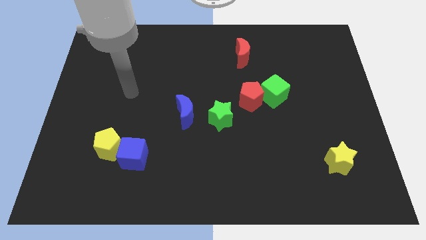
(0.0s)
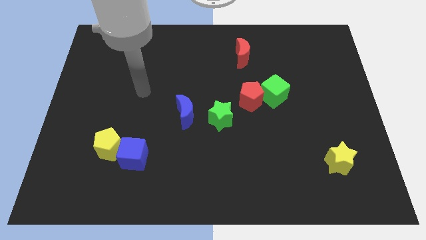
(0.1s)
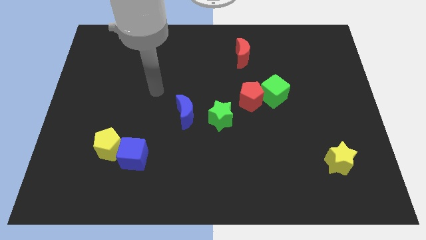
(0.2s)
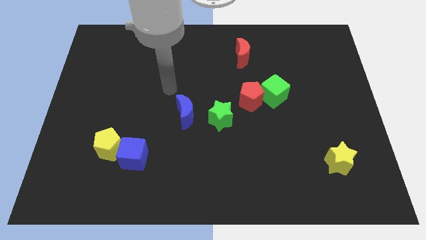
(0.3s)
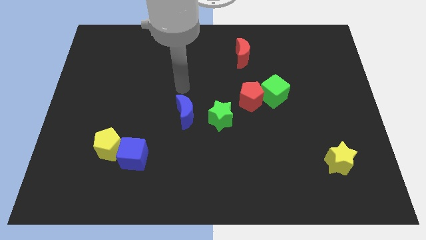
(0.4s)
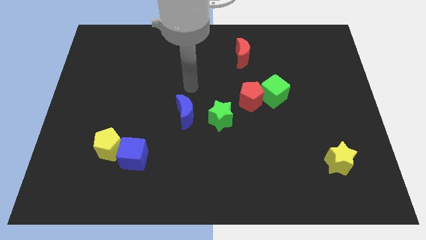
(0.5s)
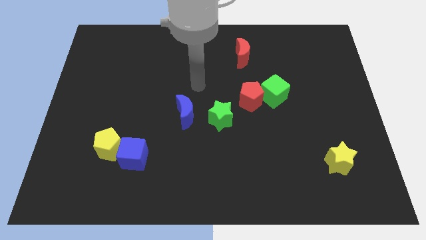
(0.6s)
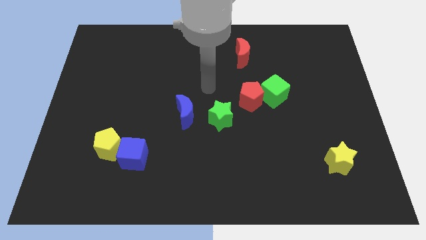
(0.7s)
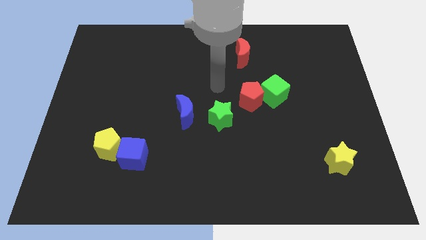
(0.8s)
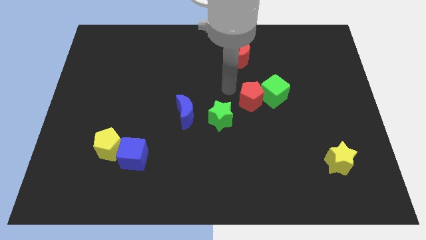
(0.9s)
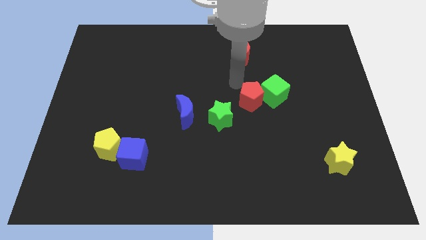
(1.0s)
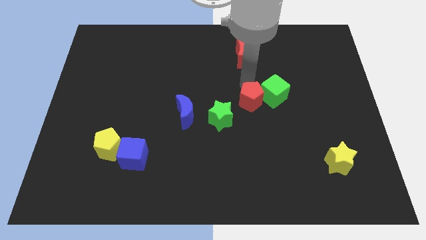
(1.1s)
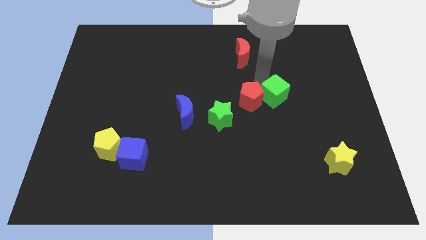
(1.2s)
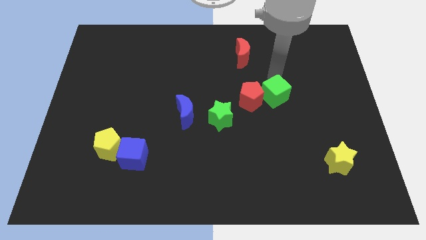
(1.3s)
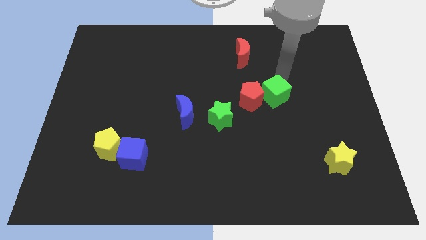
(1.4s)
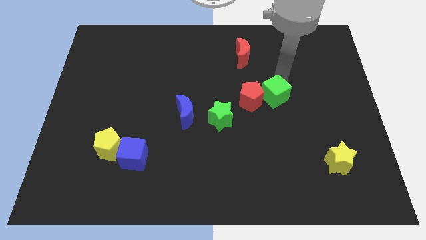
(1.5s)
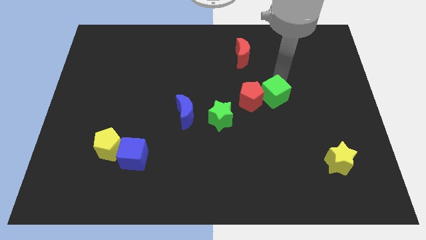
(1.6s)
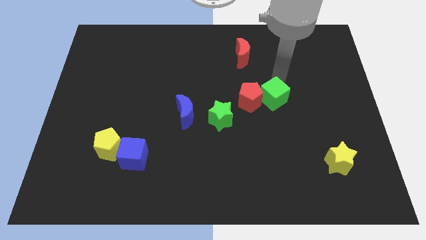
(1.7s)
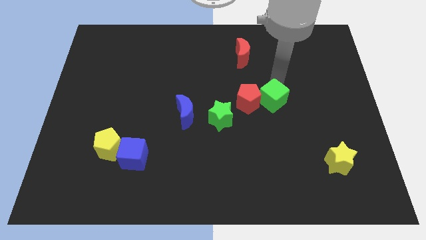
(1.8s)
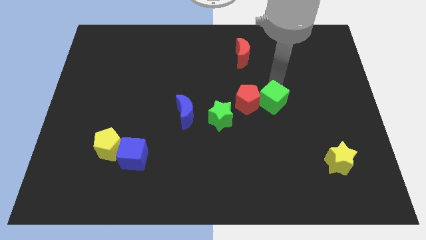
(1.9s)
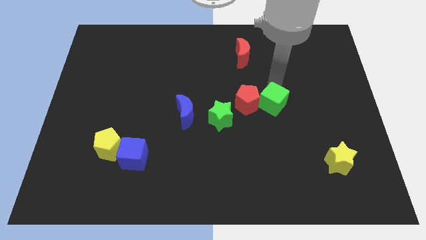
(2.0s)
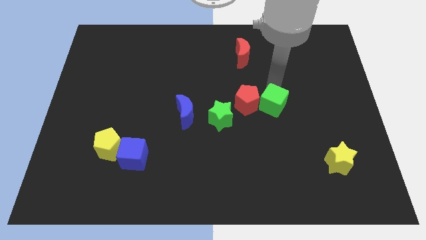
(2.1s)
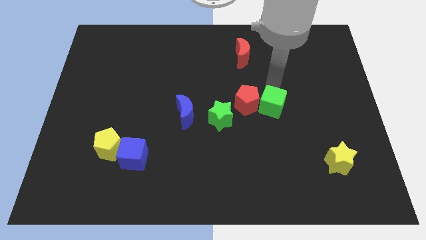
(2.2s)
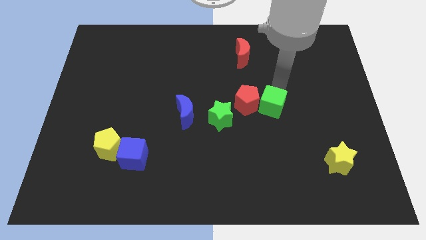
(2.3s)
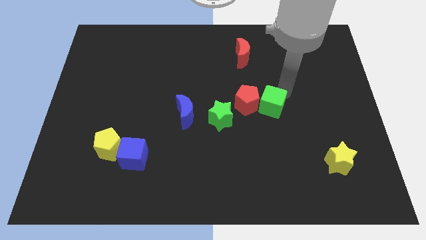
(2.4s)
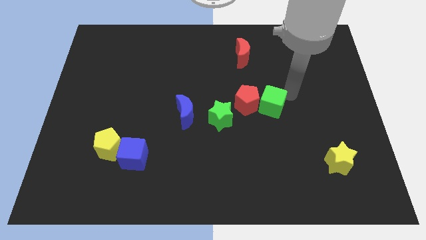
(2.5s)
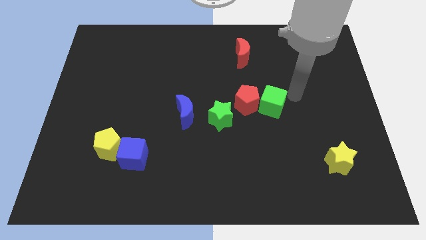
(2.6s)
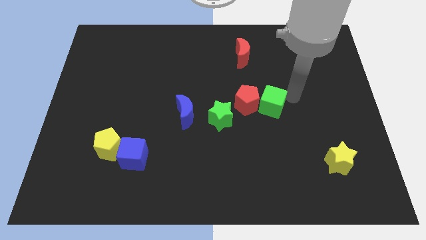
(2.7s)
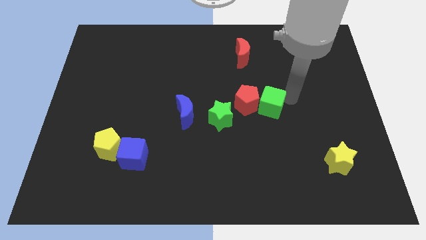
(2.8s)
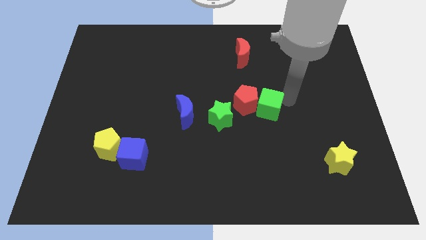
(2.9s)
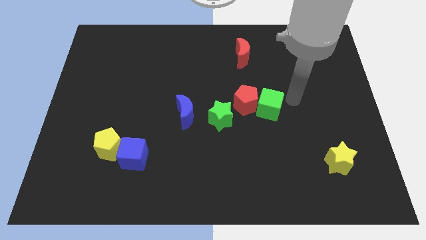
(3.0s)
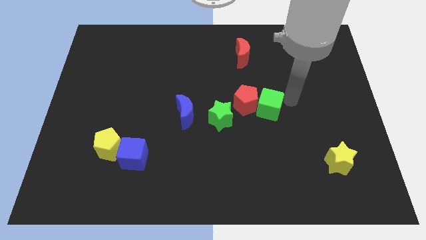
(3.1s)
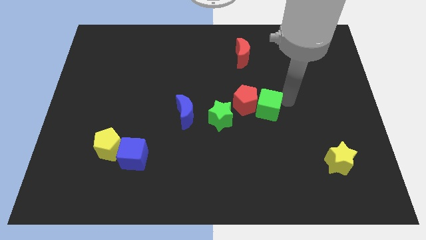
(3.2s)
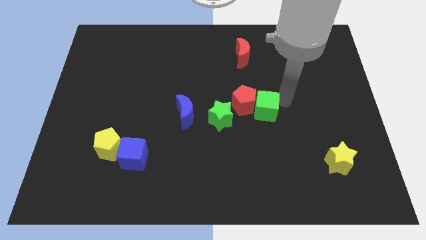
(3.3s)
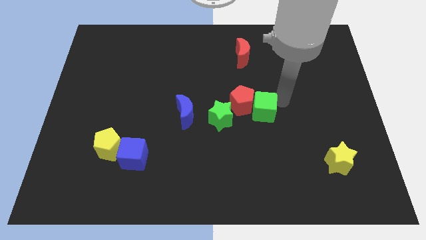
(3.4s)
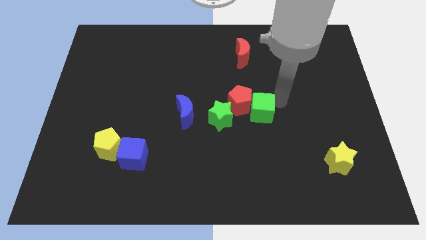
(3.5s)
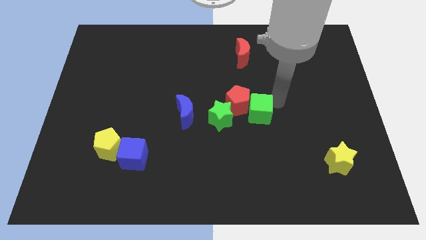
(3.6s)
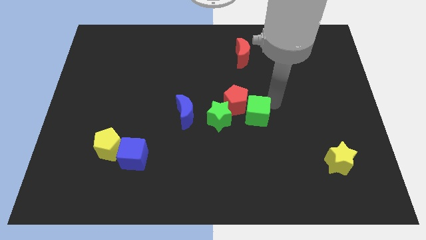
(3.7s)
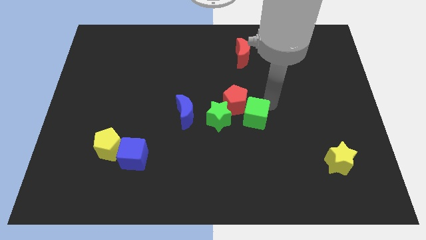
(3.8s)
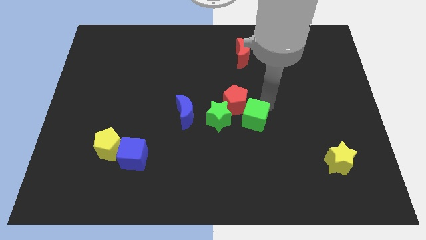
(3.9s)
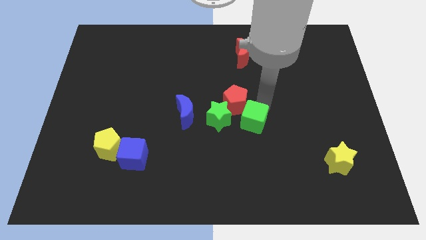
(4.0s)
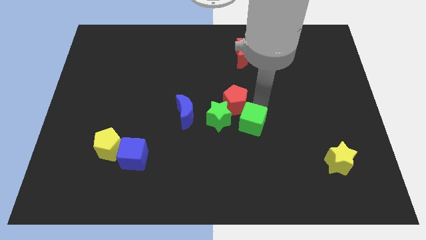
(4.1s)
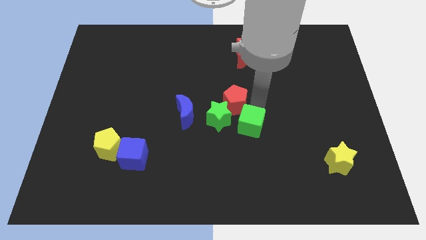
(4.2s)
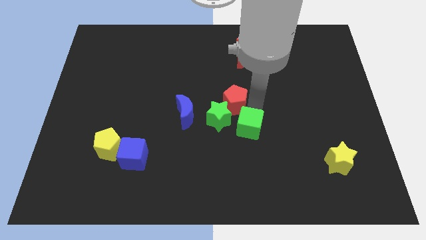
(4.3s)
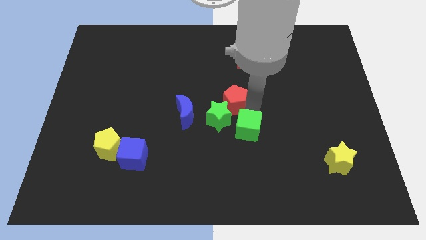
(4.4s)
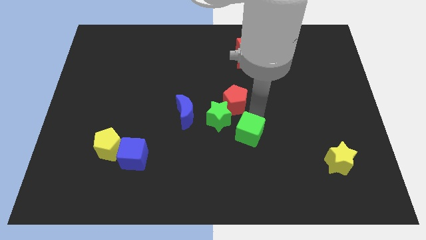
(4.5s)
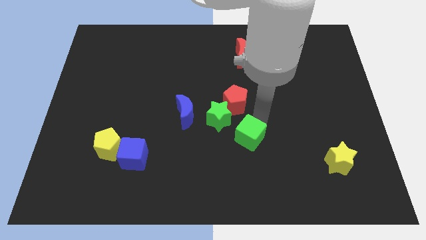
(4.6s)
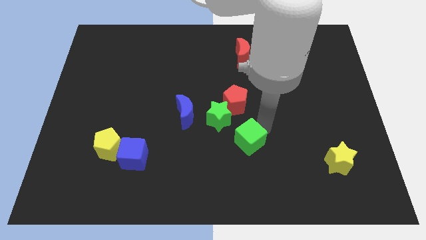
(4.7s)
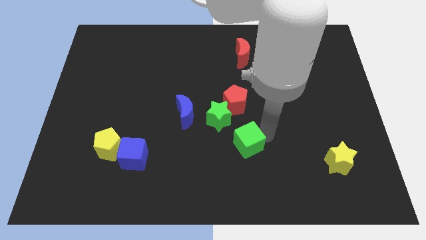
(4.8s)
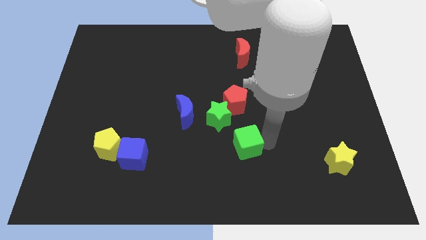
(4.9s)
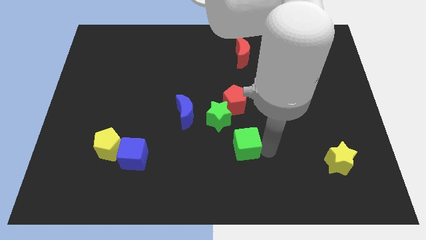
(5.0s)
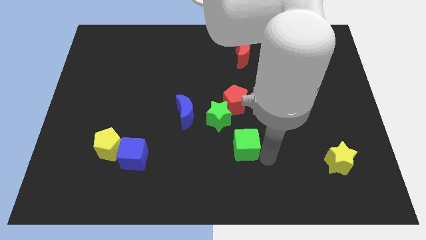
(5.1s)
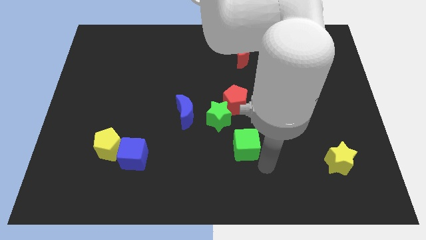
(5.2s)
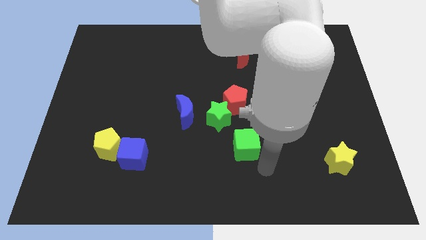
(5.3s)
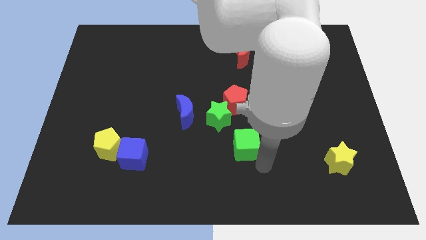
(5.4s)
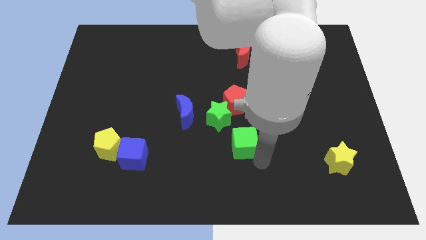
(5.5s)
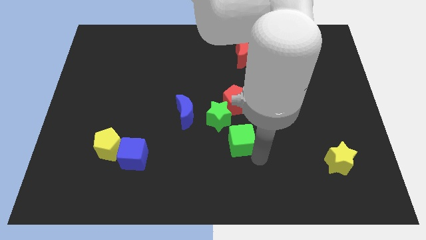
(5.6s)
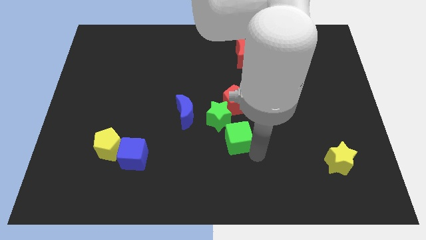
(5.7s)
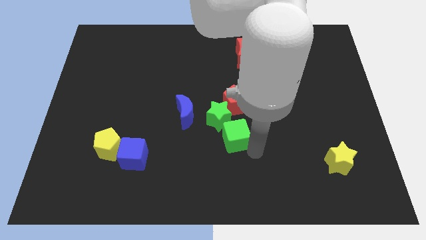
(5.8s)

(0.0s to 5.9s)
slide the green cube to the green star
